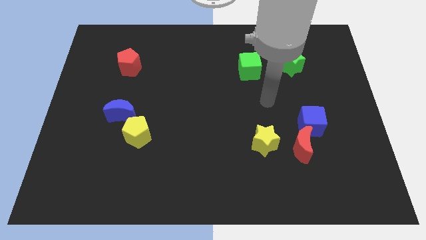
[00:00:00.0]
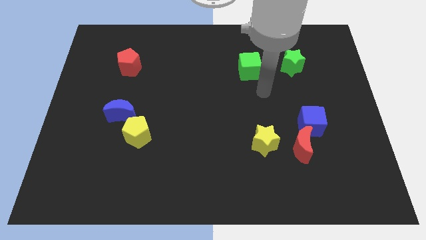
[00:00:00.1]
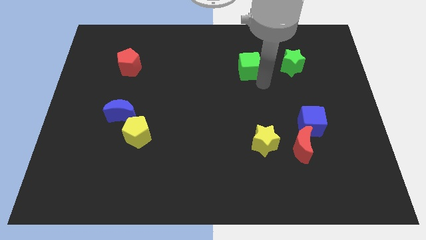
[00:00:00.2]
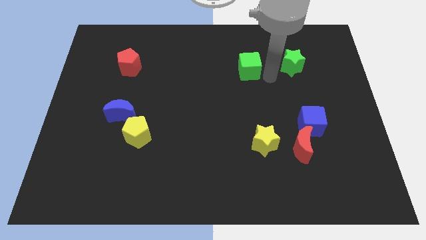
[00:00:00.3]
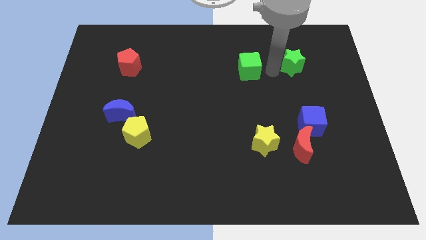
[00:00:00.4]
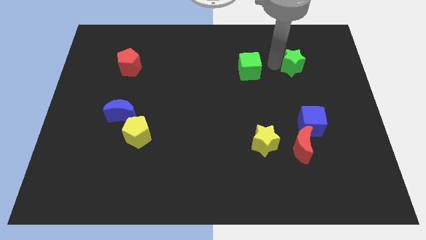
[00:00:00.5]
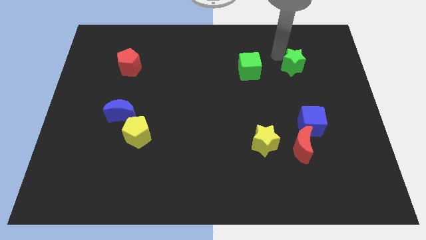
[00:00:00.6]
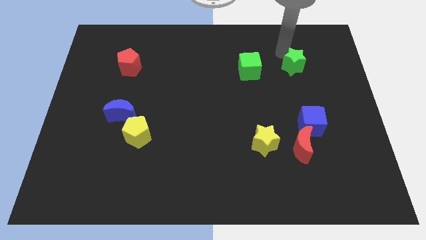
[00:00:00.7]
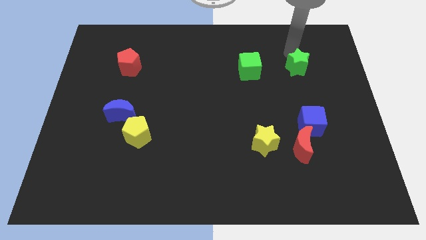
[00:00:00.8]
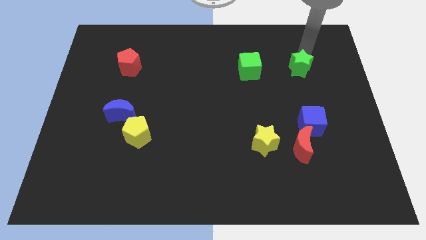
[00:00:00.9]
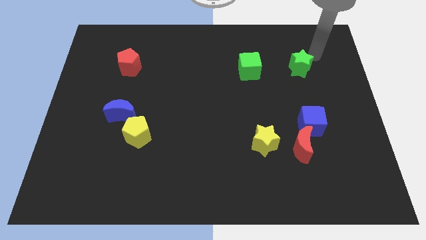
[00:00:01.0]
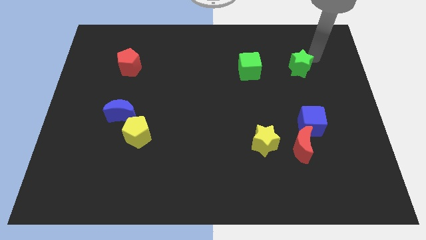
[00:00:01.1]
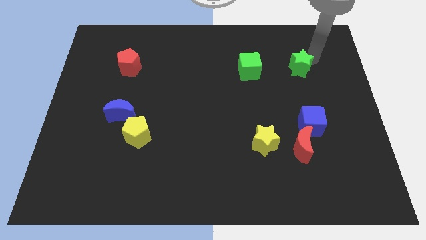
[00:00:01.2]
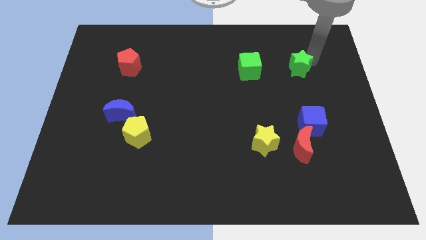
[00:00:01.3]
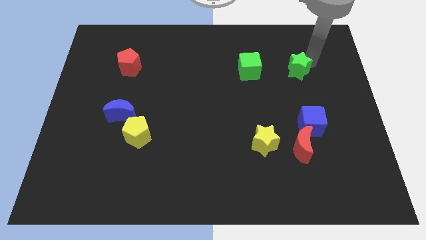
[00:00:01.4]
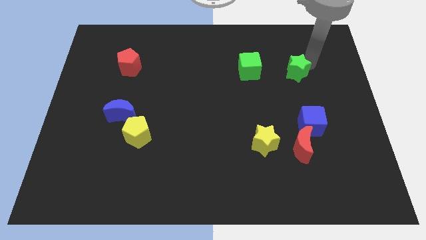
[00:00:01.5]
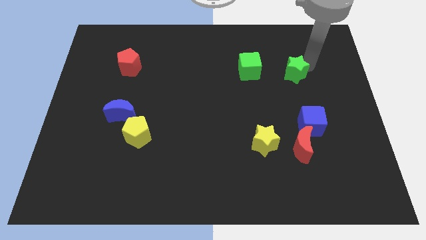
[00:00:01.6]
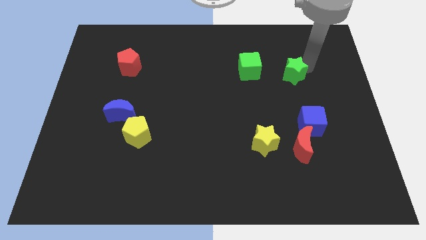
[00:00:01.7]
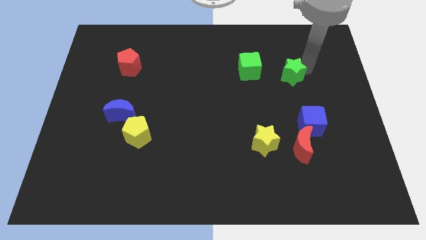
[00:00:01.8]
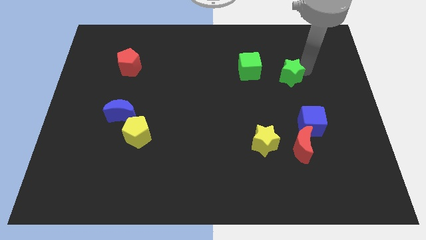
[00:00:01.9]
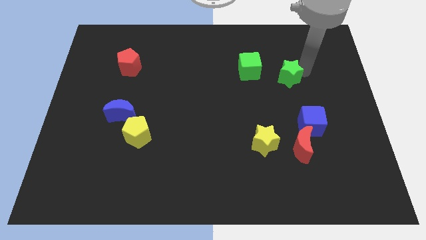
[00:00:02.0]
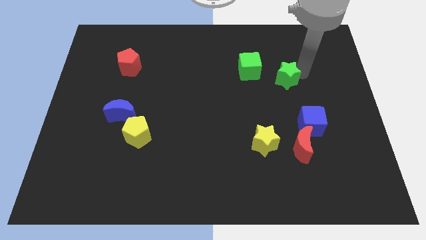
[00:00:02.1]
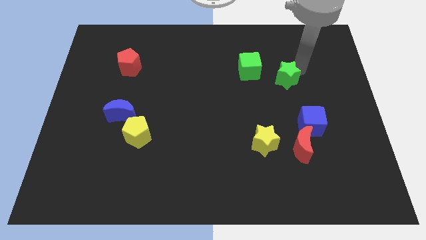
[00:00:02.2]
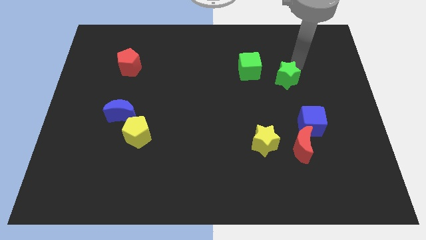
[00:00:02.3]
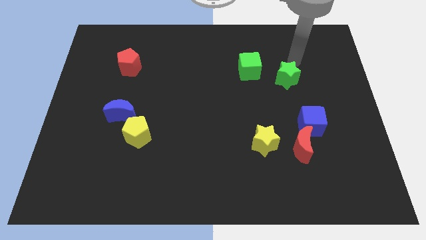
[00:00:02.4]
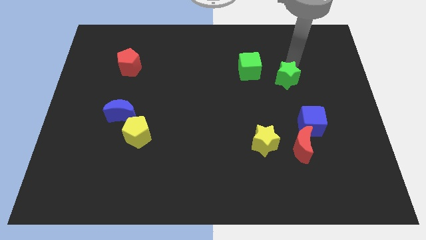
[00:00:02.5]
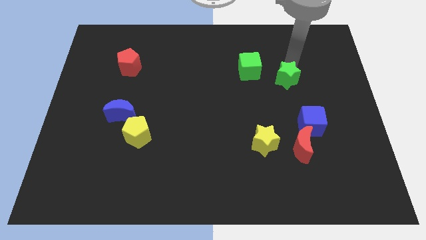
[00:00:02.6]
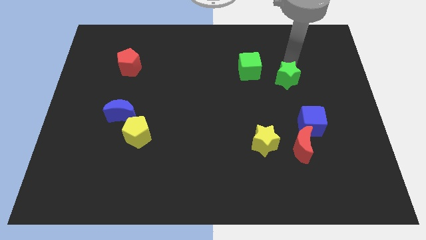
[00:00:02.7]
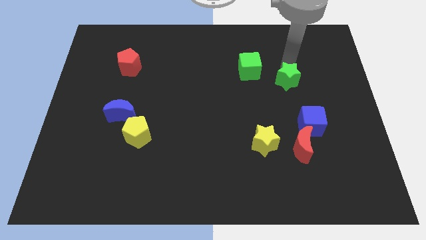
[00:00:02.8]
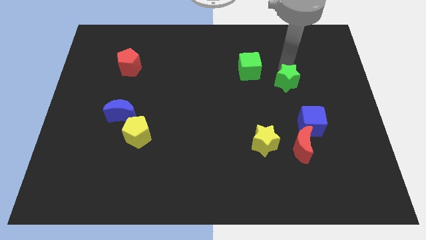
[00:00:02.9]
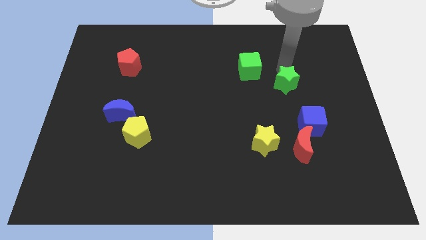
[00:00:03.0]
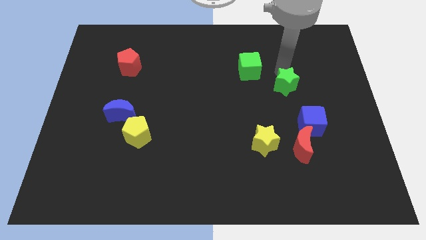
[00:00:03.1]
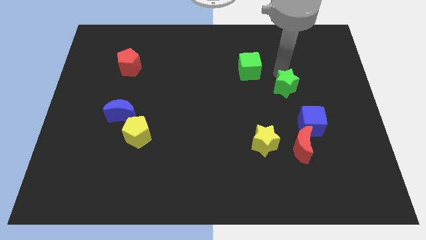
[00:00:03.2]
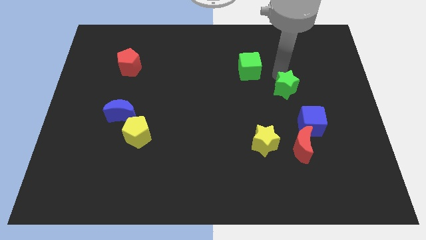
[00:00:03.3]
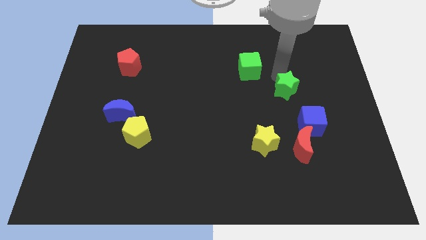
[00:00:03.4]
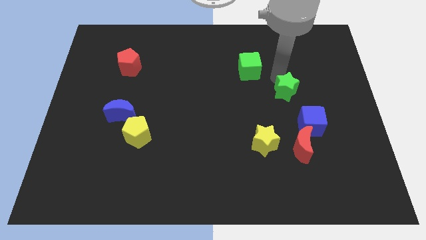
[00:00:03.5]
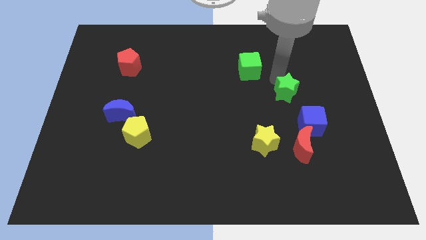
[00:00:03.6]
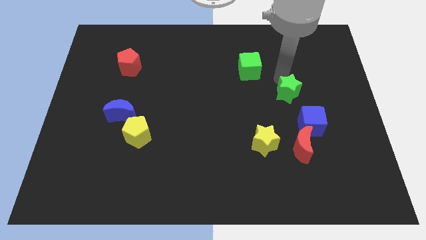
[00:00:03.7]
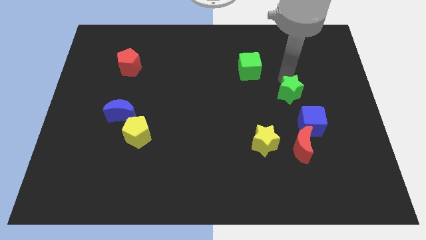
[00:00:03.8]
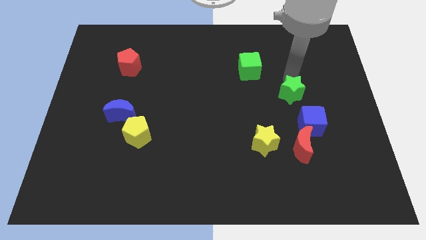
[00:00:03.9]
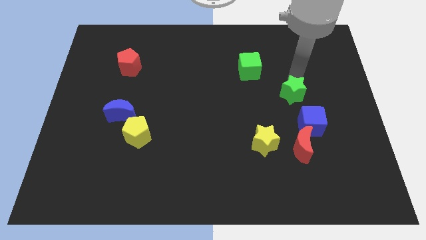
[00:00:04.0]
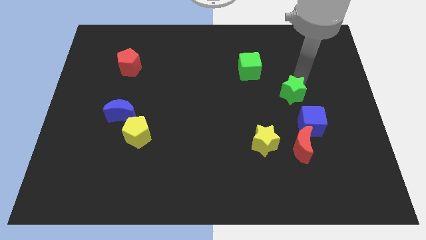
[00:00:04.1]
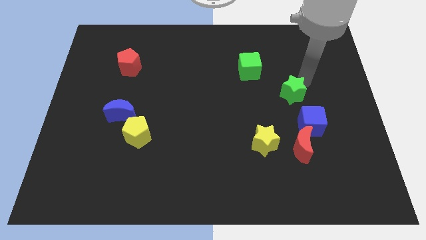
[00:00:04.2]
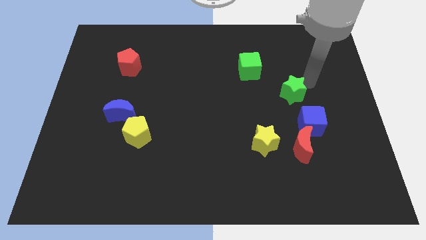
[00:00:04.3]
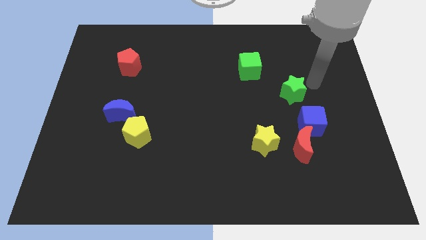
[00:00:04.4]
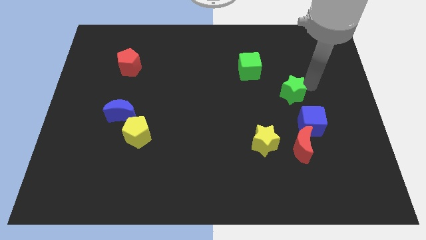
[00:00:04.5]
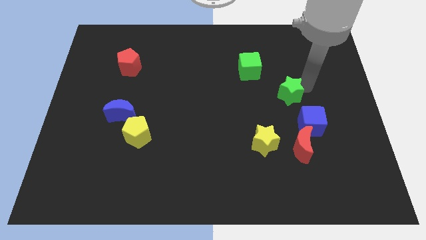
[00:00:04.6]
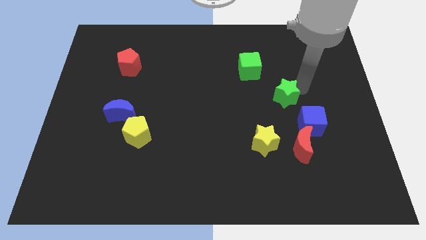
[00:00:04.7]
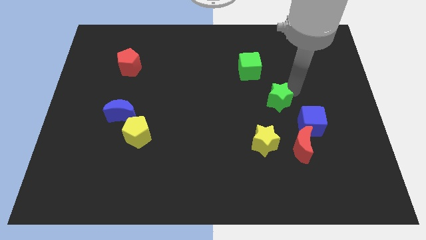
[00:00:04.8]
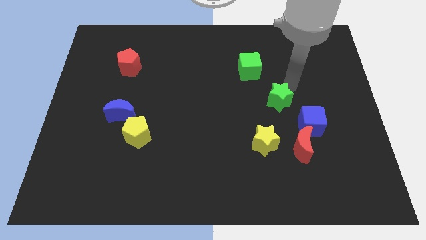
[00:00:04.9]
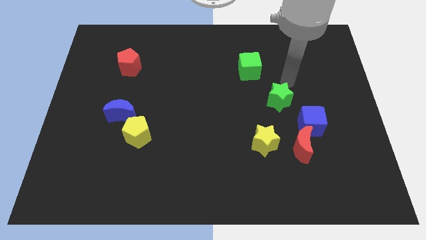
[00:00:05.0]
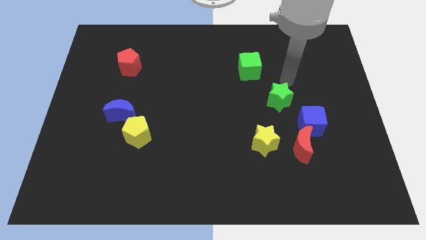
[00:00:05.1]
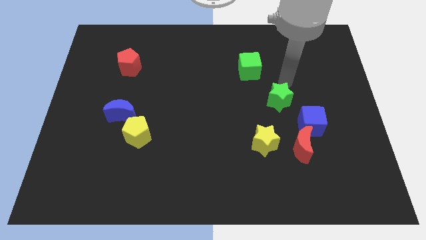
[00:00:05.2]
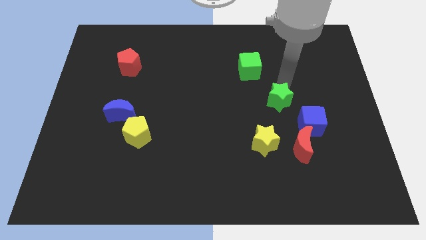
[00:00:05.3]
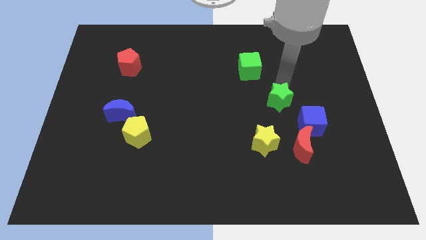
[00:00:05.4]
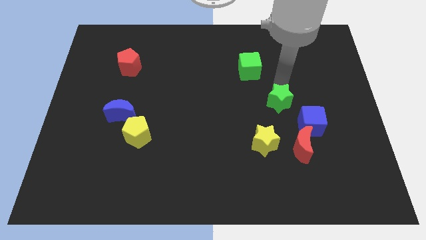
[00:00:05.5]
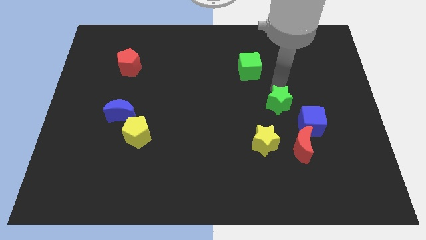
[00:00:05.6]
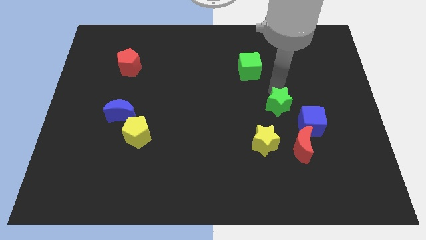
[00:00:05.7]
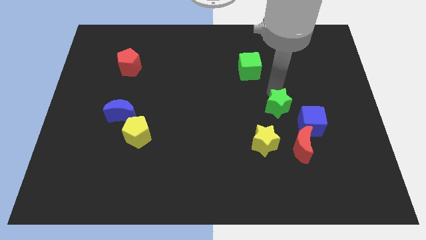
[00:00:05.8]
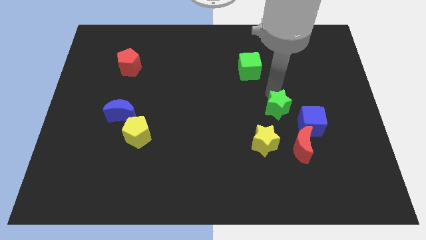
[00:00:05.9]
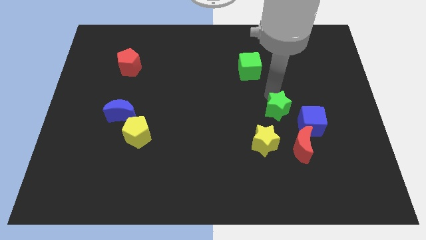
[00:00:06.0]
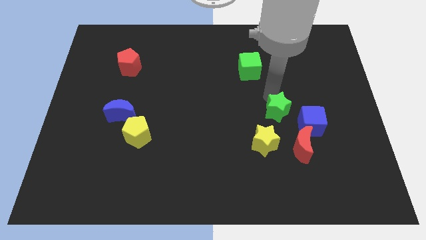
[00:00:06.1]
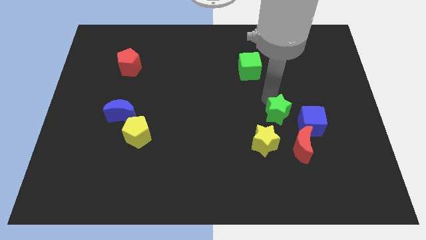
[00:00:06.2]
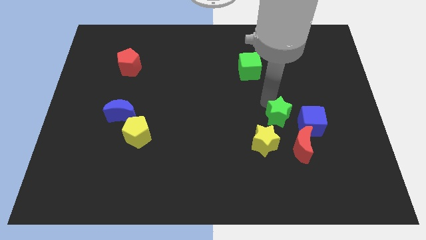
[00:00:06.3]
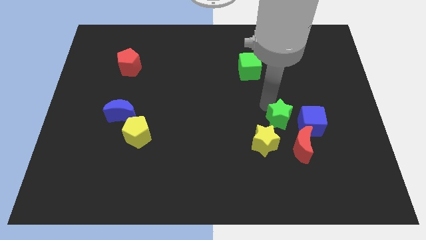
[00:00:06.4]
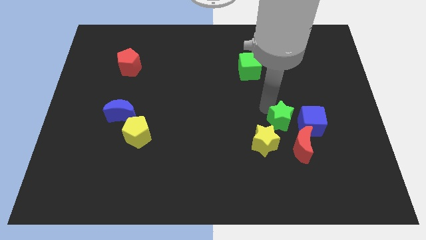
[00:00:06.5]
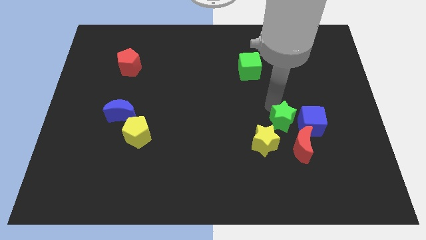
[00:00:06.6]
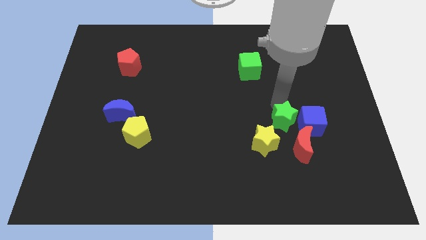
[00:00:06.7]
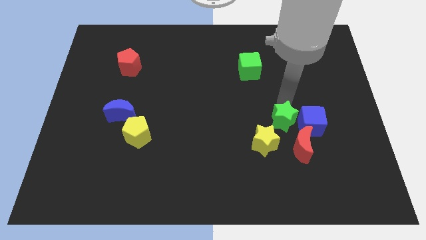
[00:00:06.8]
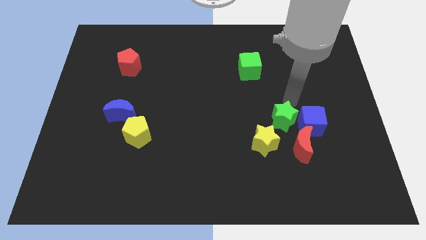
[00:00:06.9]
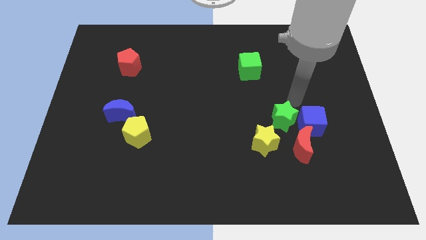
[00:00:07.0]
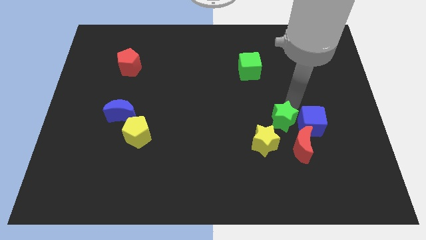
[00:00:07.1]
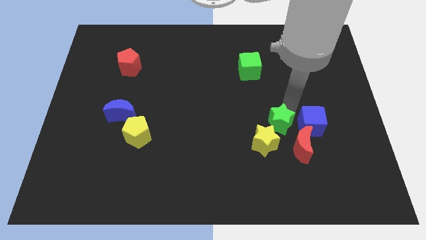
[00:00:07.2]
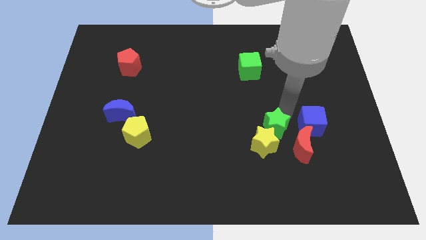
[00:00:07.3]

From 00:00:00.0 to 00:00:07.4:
put the green star towards the yellow star
